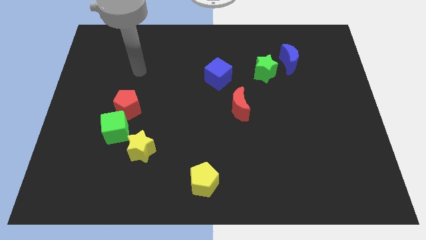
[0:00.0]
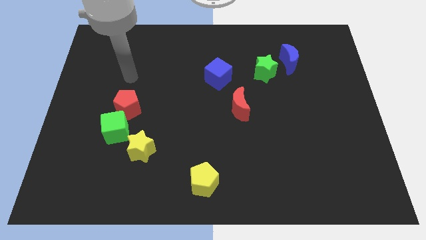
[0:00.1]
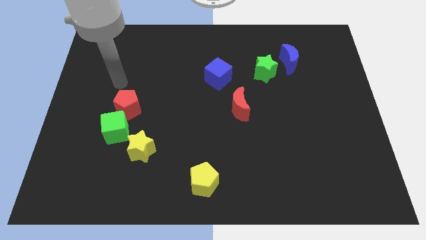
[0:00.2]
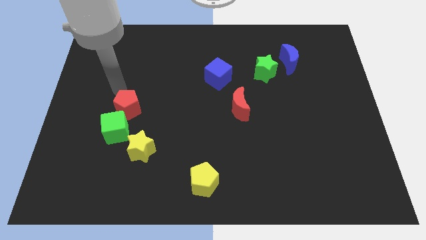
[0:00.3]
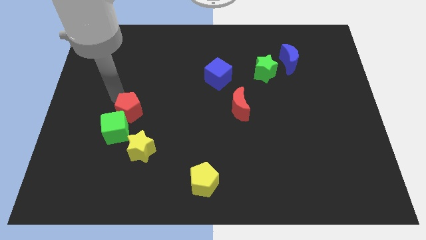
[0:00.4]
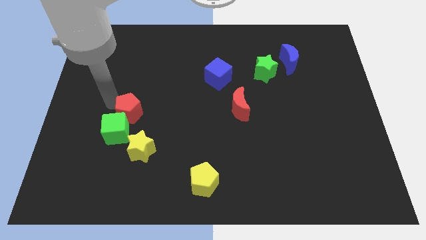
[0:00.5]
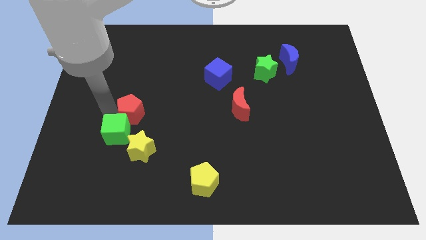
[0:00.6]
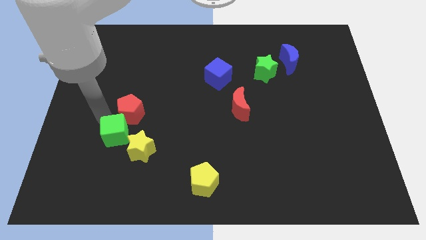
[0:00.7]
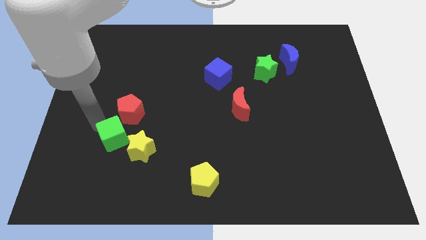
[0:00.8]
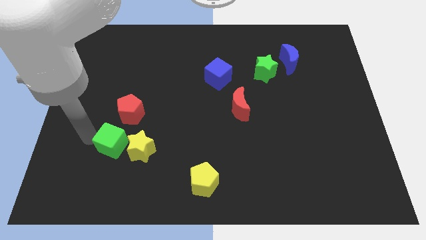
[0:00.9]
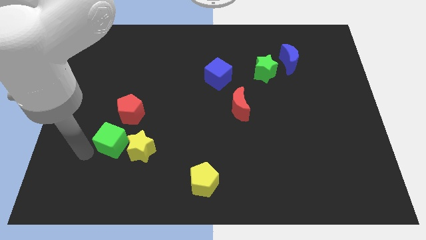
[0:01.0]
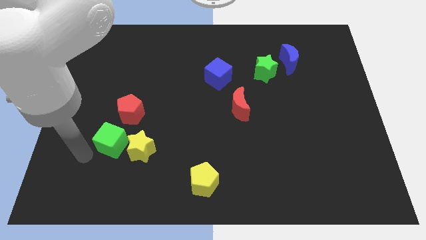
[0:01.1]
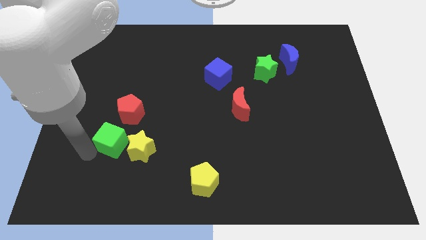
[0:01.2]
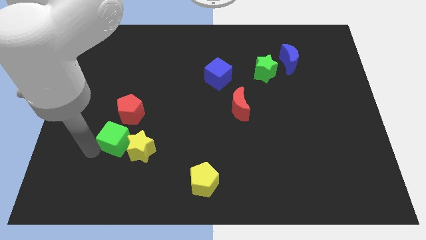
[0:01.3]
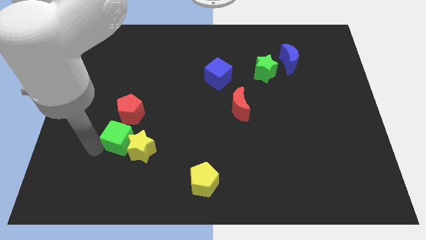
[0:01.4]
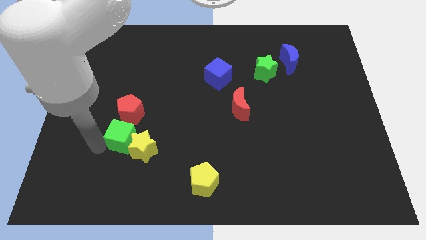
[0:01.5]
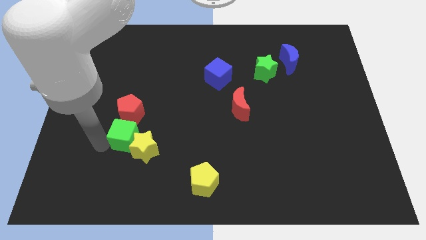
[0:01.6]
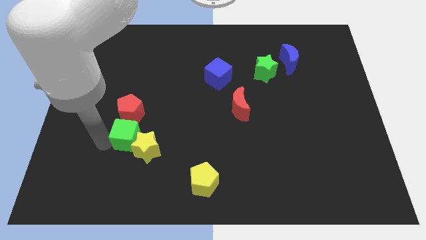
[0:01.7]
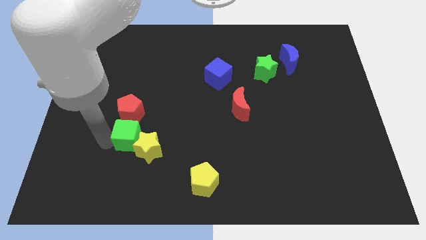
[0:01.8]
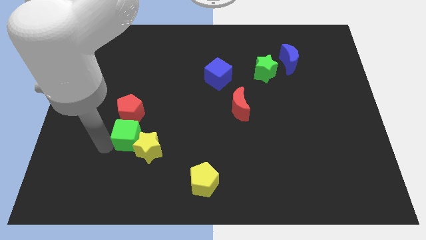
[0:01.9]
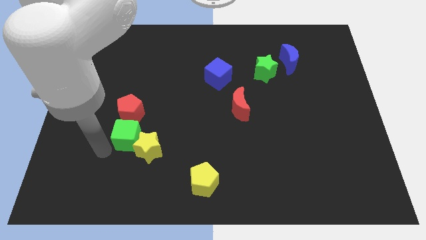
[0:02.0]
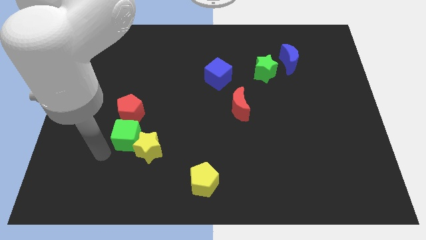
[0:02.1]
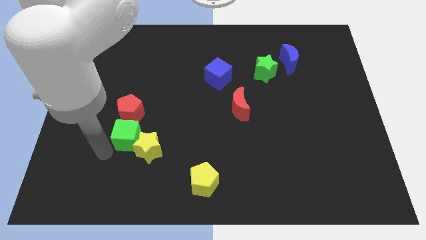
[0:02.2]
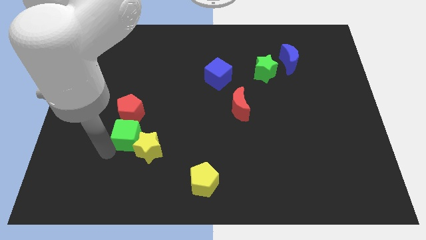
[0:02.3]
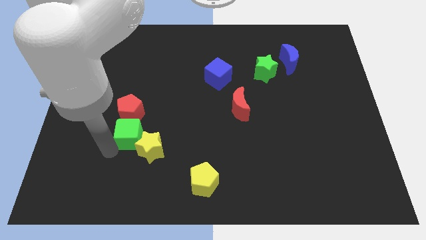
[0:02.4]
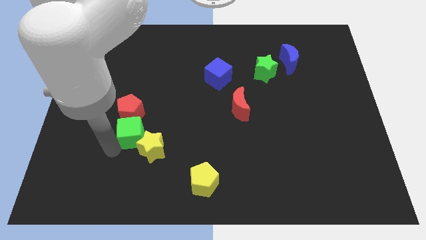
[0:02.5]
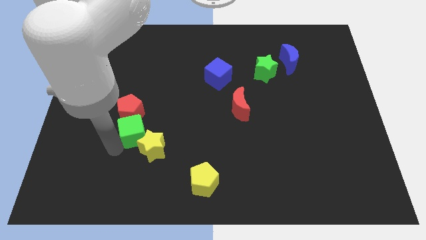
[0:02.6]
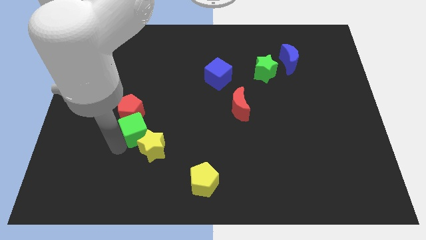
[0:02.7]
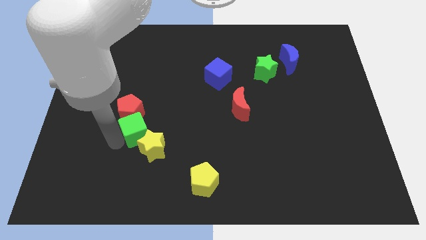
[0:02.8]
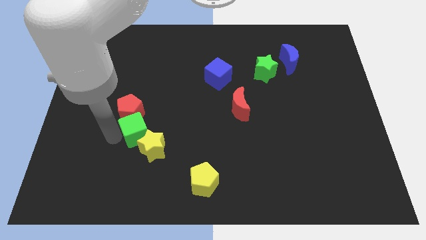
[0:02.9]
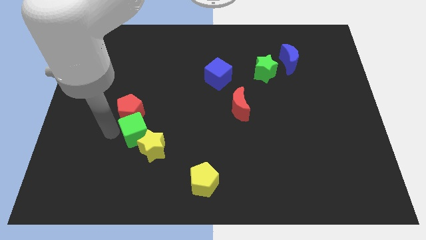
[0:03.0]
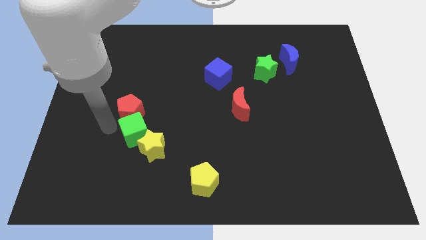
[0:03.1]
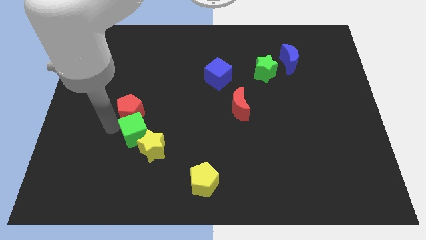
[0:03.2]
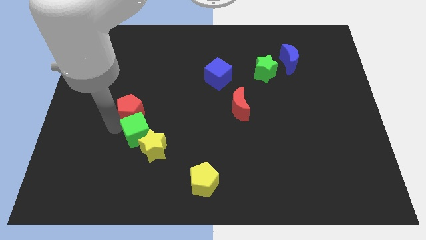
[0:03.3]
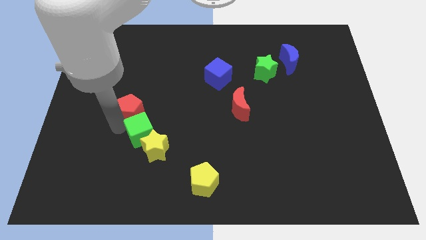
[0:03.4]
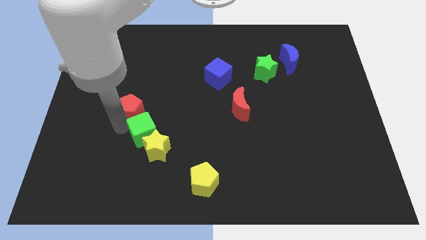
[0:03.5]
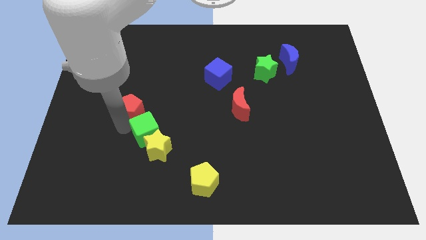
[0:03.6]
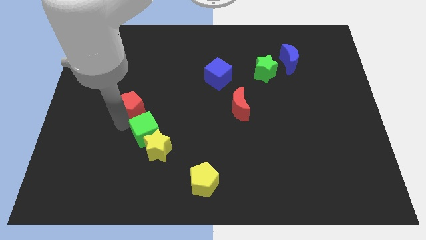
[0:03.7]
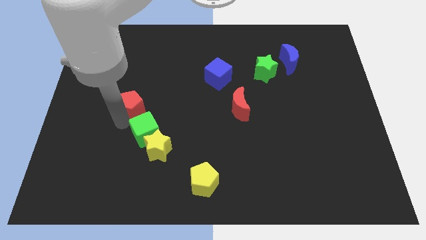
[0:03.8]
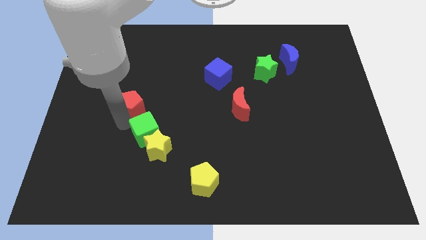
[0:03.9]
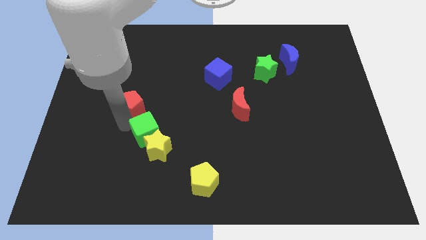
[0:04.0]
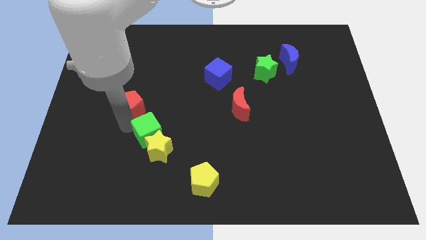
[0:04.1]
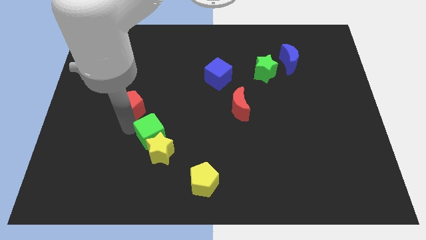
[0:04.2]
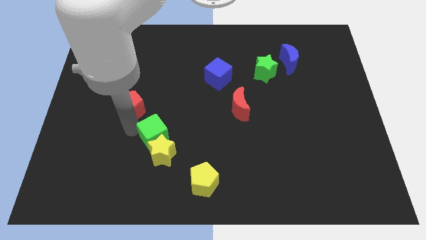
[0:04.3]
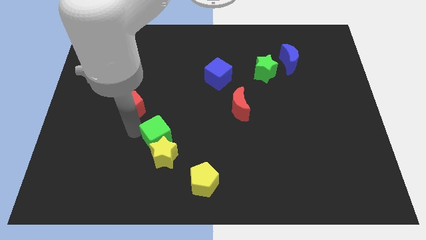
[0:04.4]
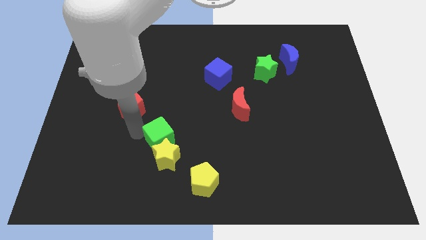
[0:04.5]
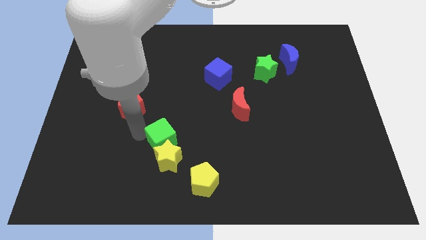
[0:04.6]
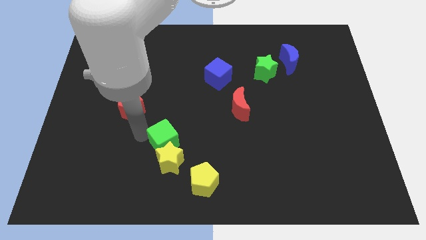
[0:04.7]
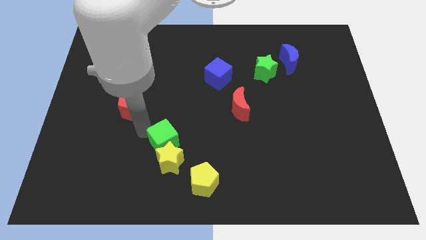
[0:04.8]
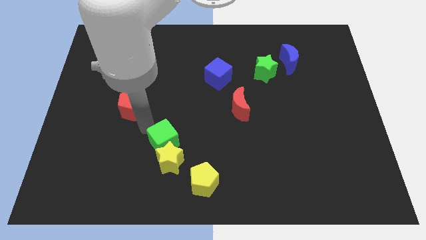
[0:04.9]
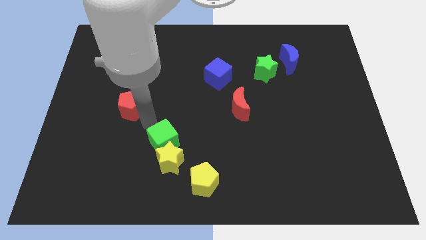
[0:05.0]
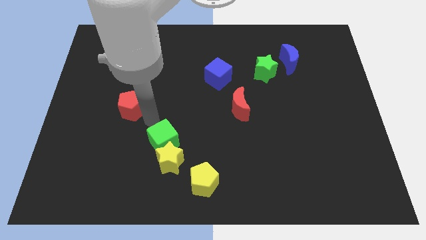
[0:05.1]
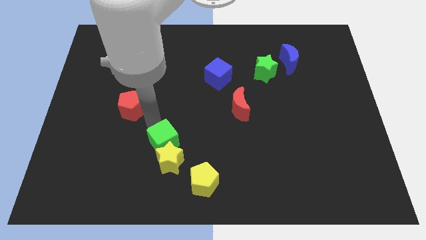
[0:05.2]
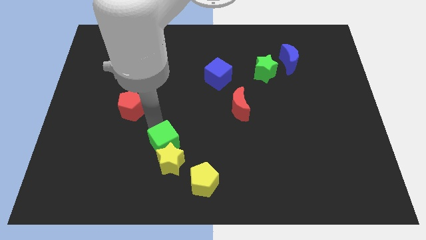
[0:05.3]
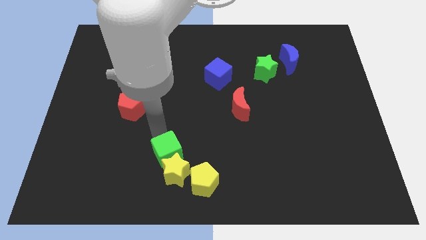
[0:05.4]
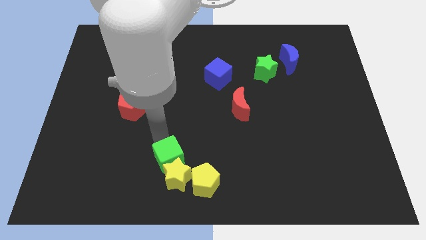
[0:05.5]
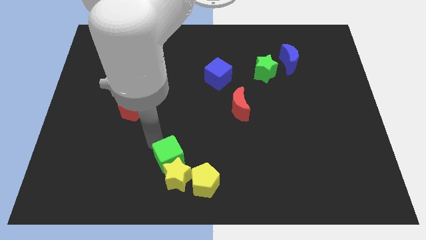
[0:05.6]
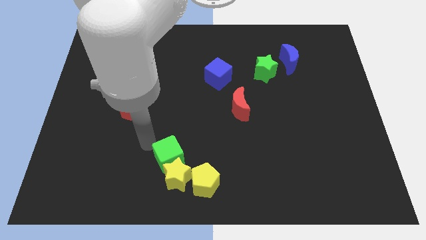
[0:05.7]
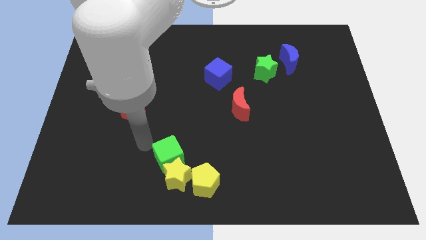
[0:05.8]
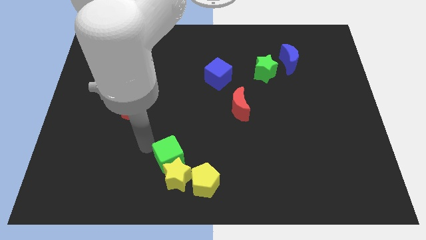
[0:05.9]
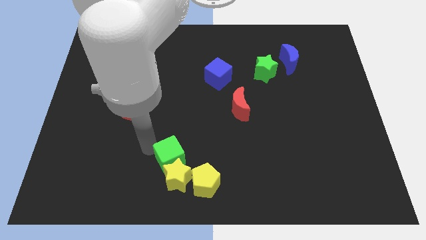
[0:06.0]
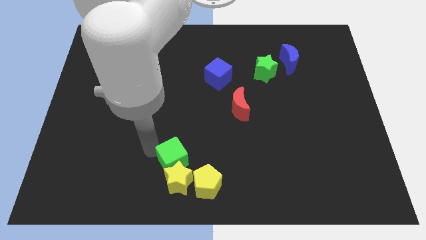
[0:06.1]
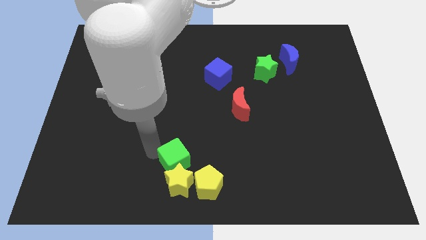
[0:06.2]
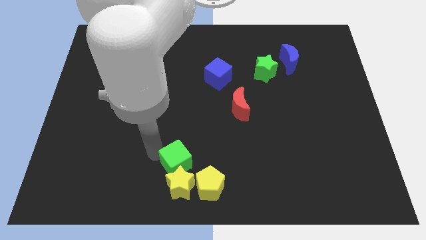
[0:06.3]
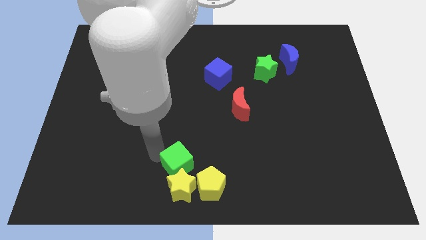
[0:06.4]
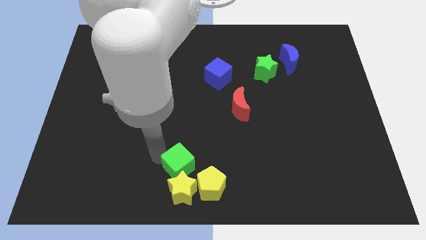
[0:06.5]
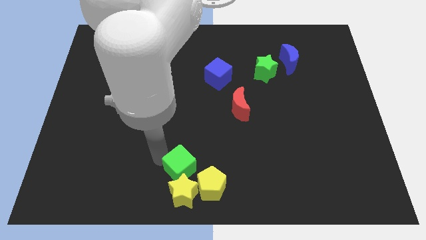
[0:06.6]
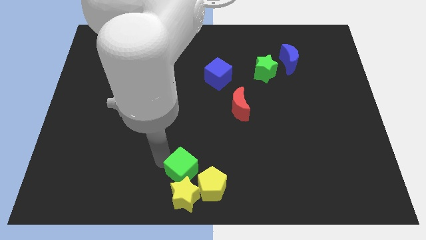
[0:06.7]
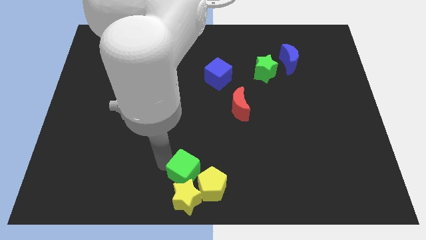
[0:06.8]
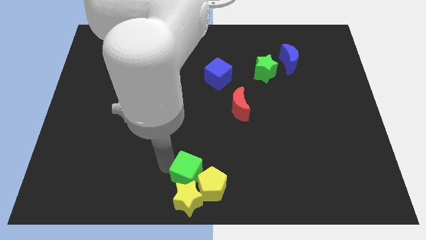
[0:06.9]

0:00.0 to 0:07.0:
move the green cube to the yellow pentagon
